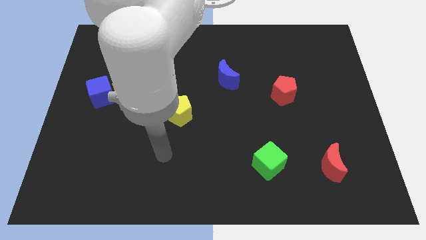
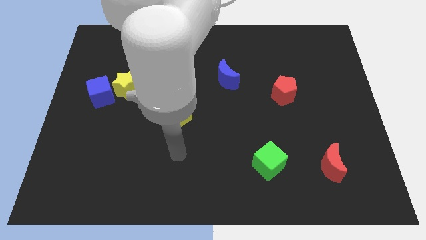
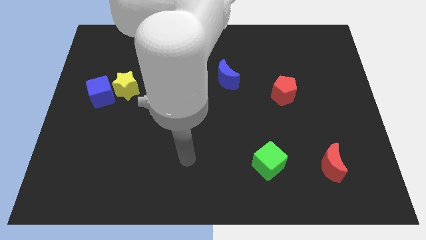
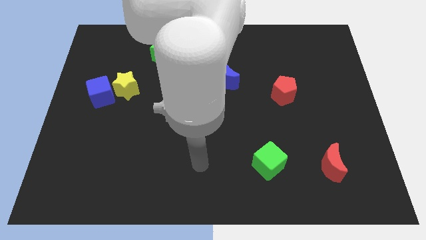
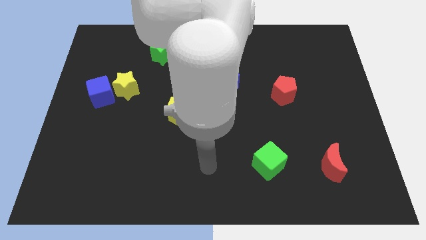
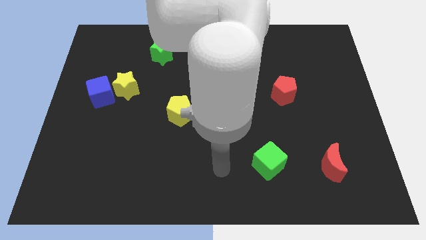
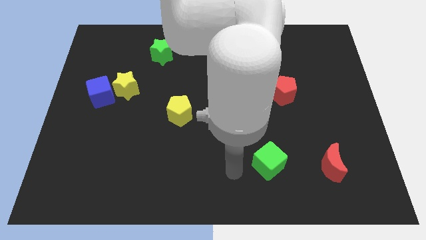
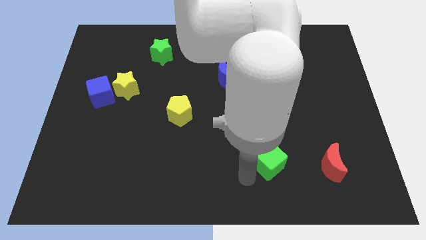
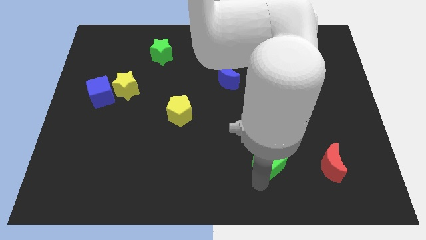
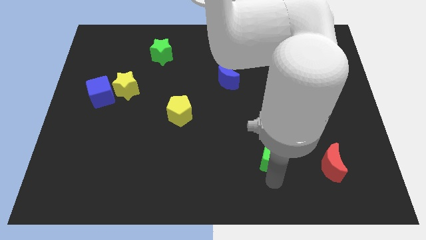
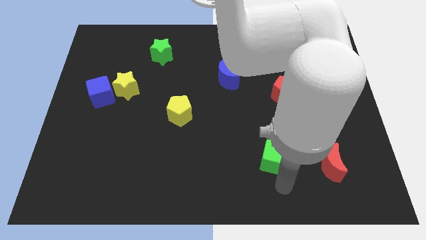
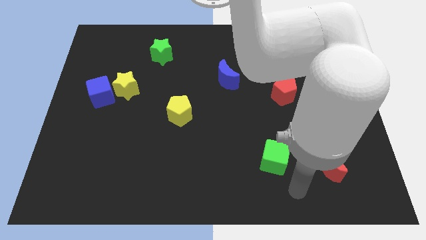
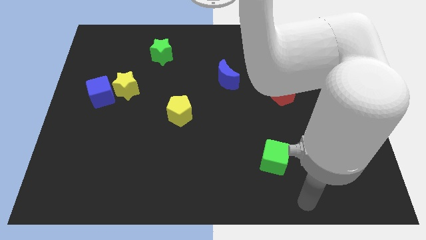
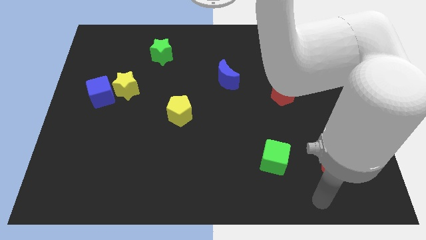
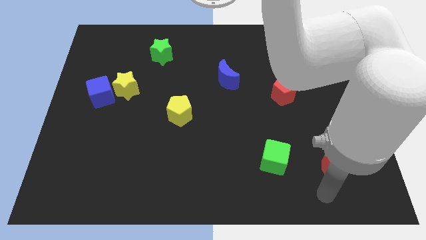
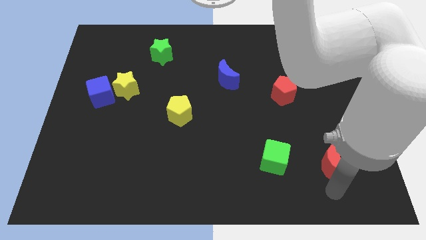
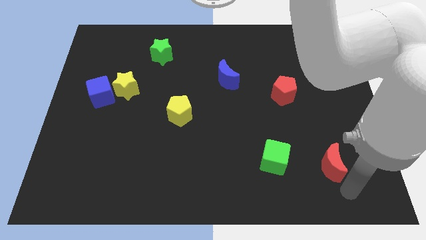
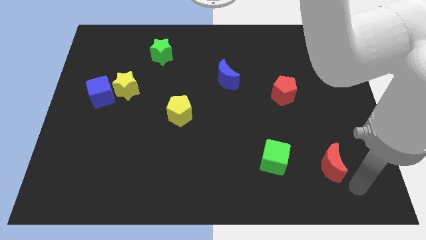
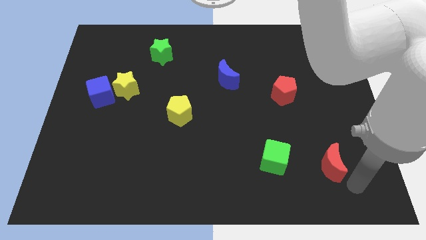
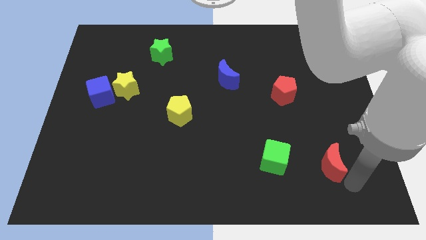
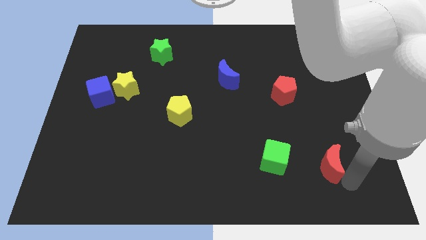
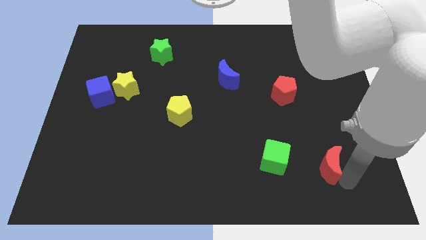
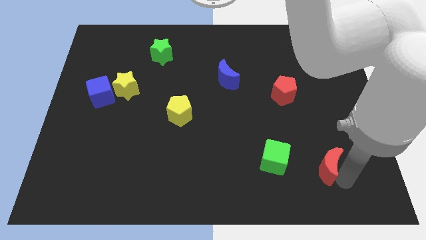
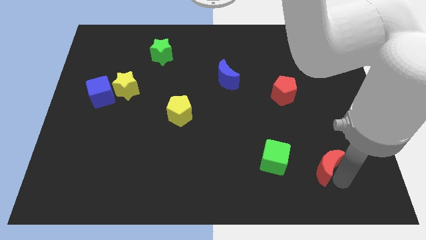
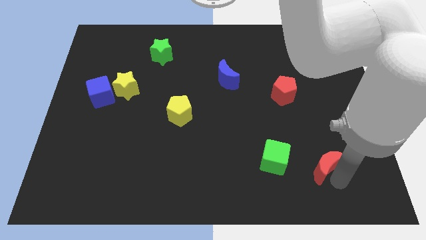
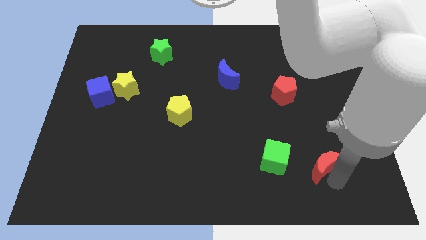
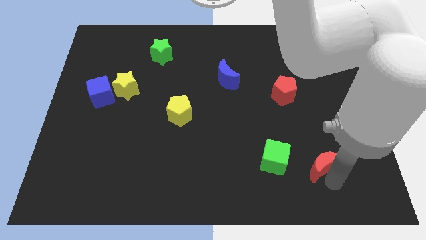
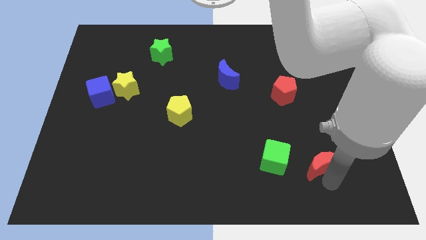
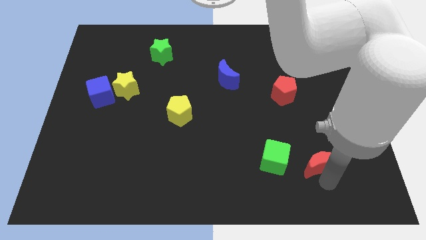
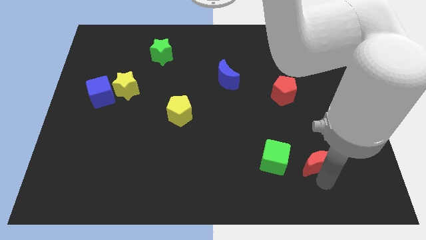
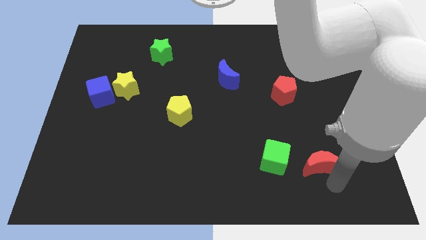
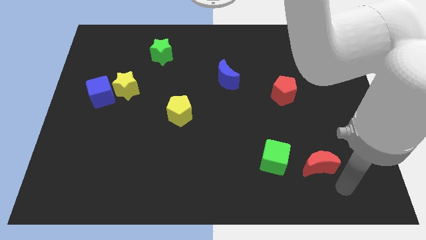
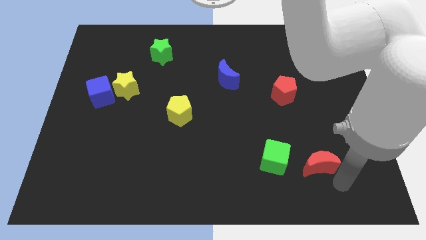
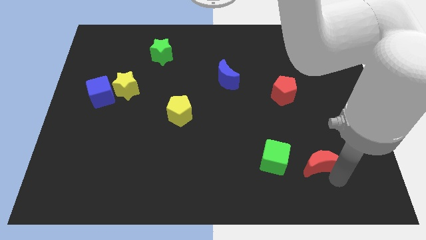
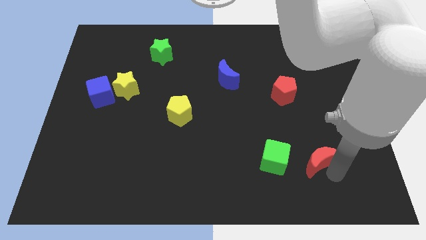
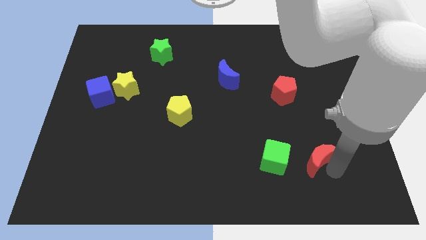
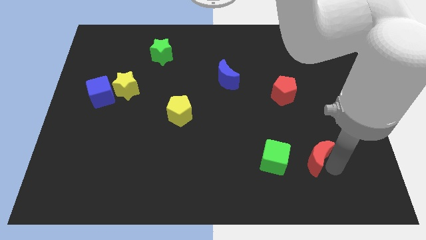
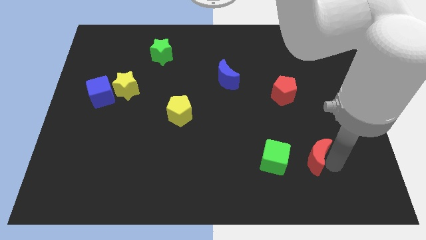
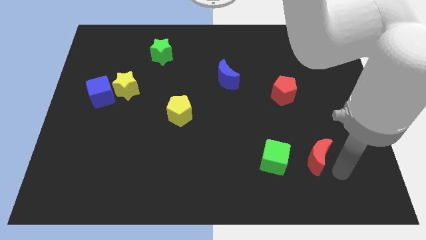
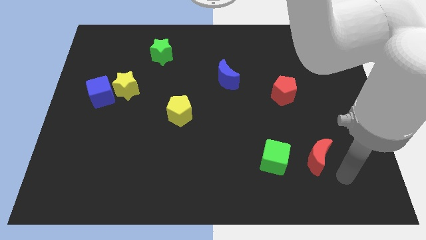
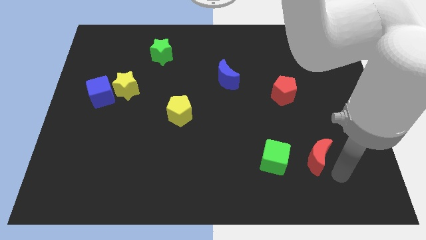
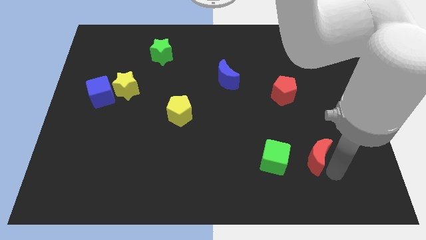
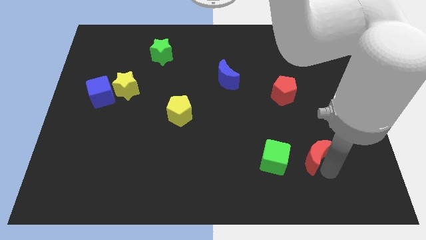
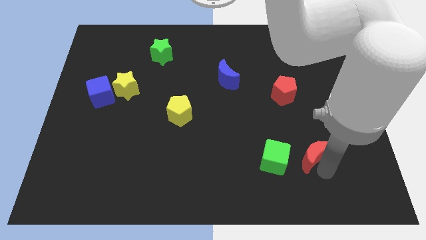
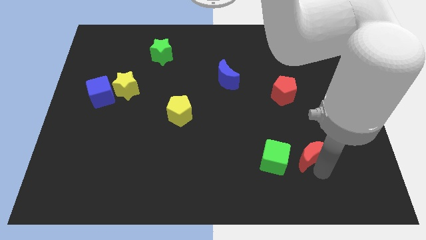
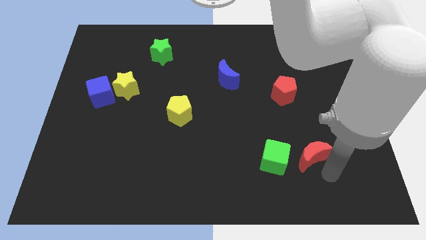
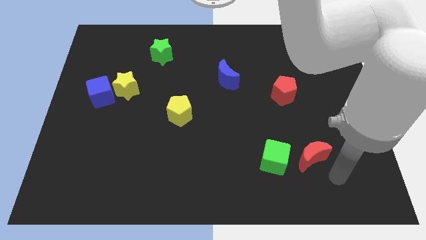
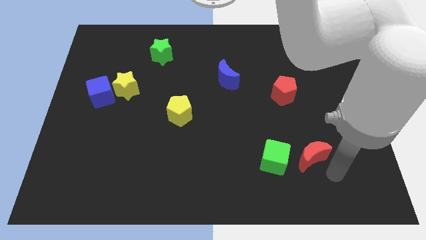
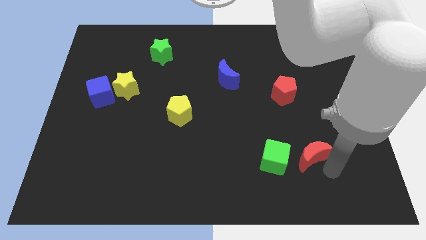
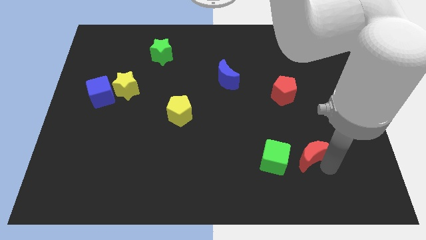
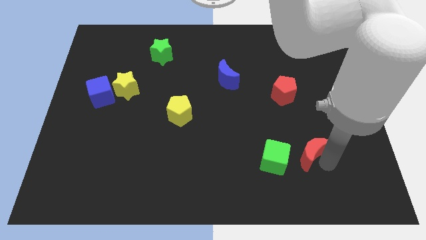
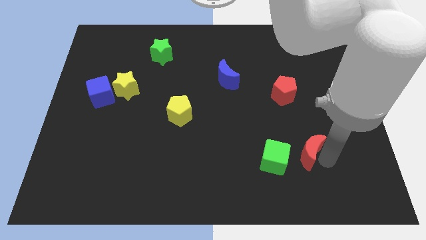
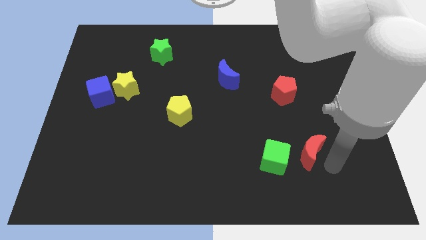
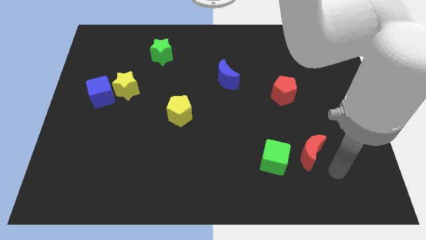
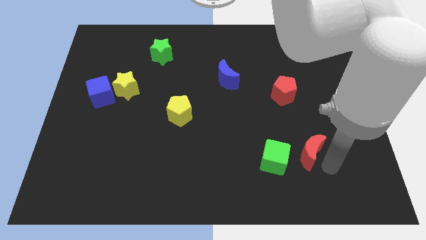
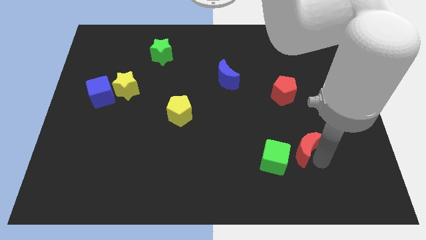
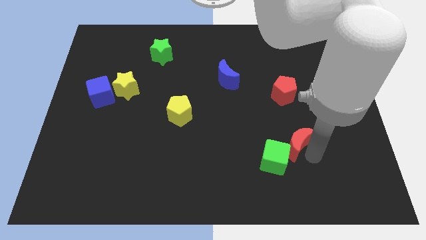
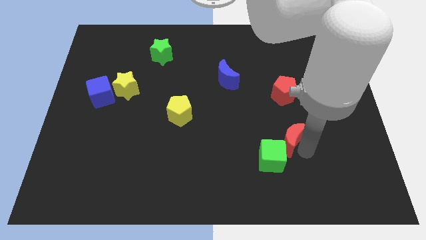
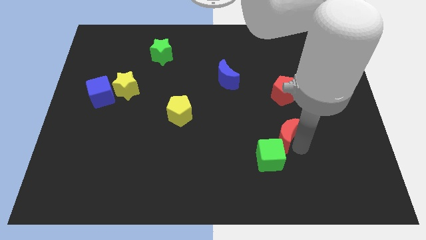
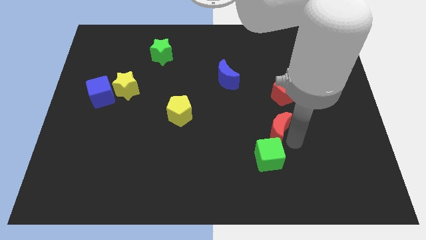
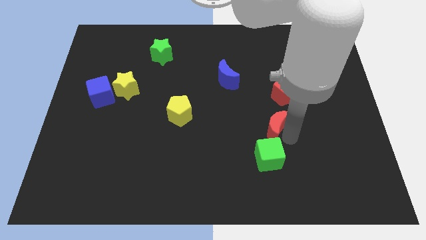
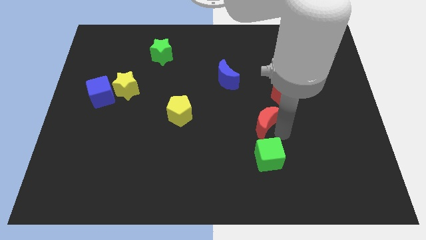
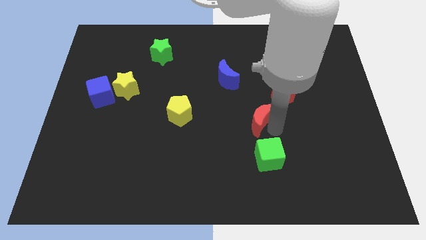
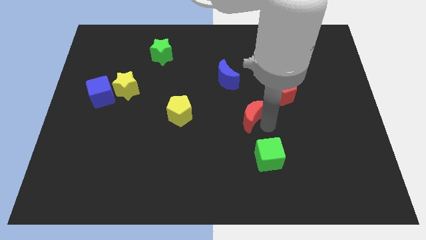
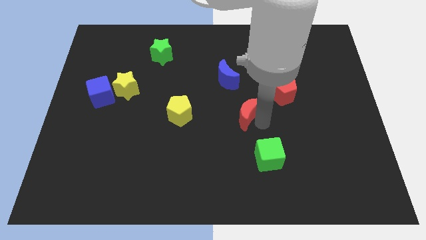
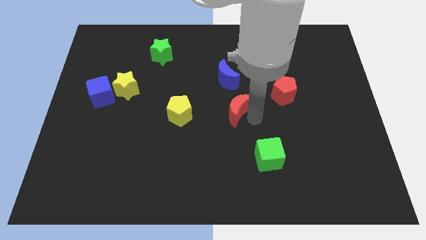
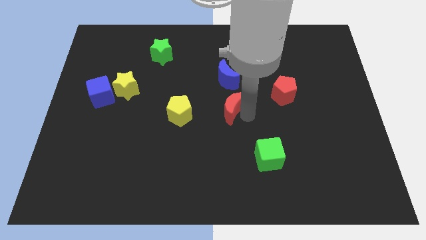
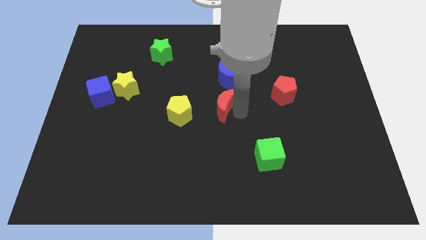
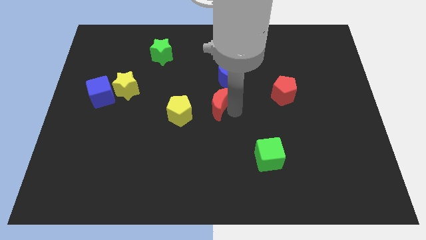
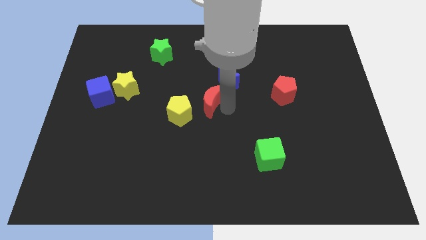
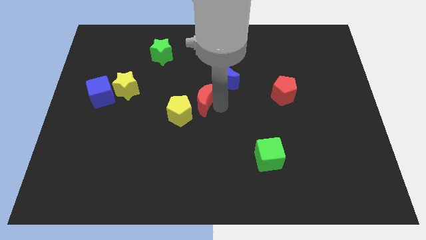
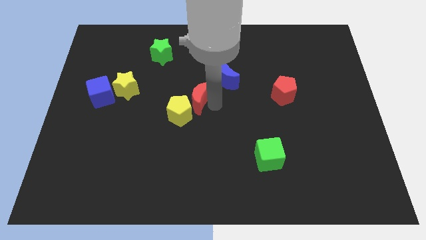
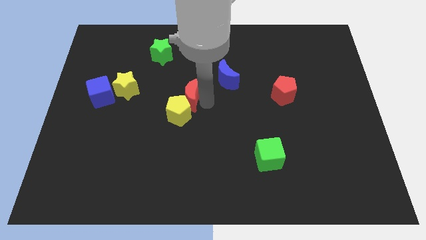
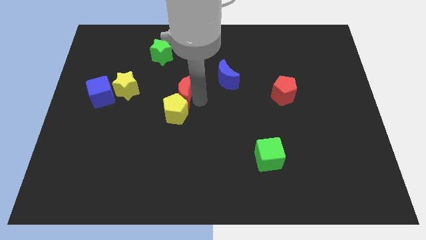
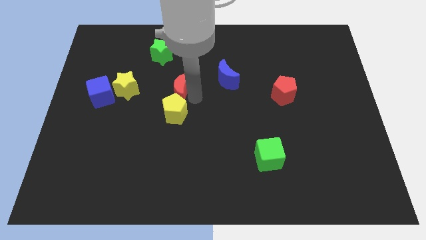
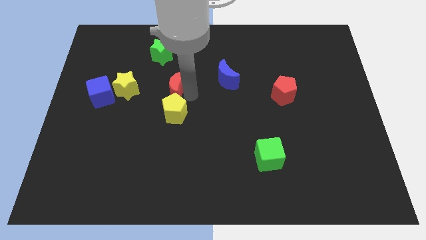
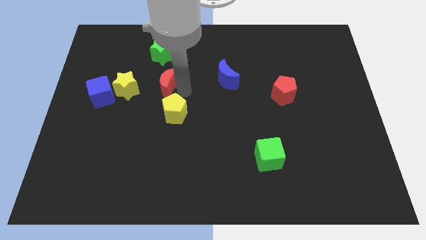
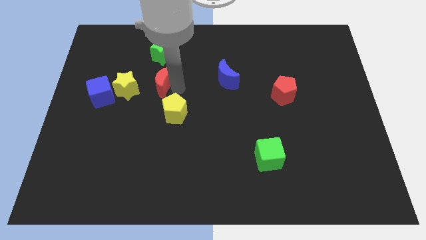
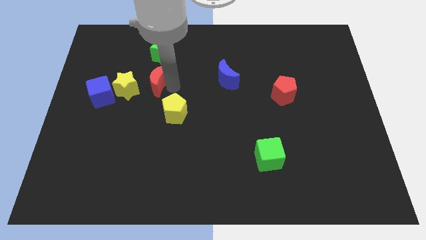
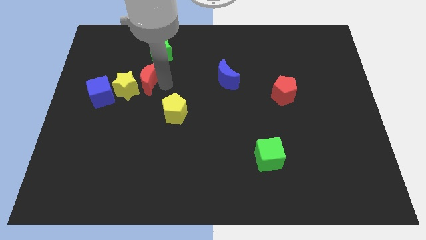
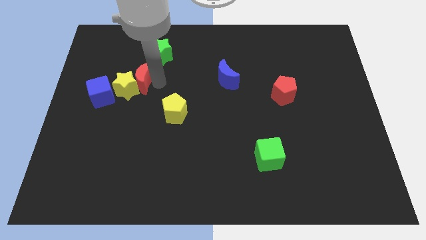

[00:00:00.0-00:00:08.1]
push the red moon to the top right of the blue cube

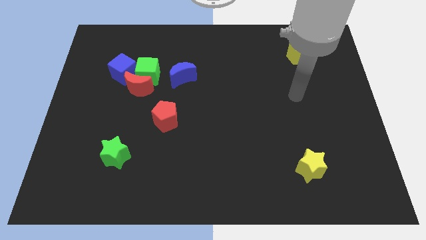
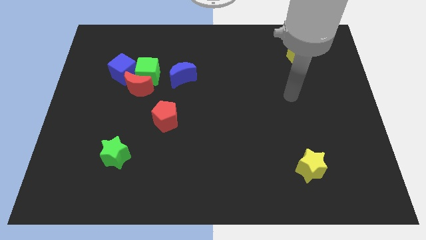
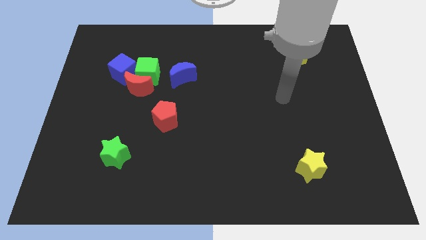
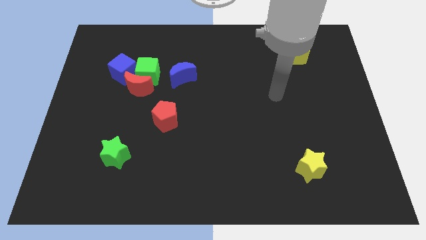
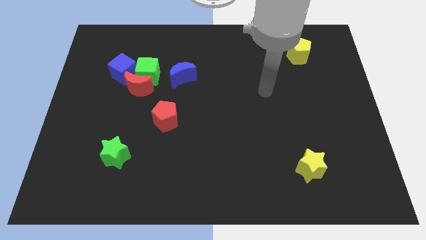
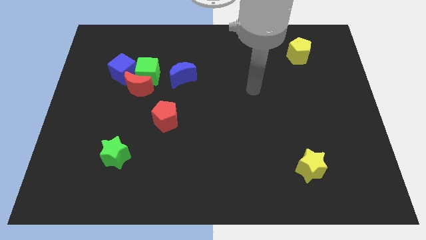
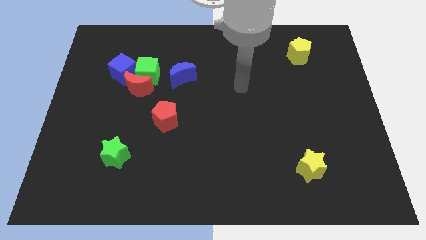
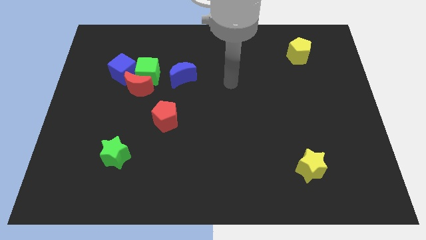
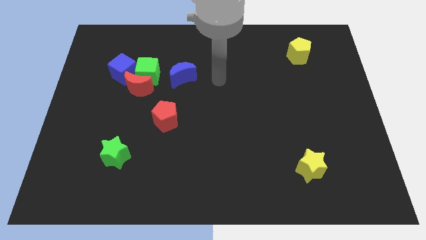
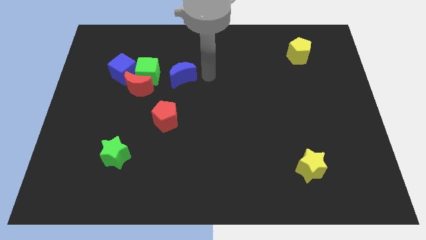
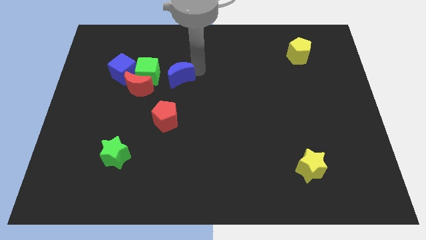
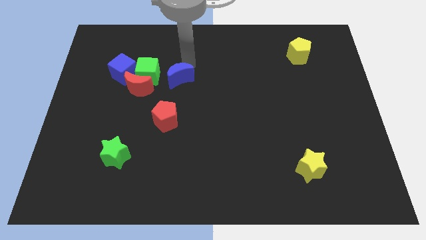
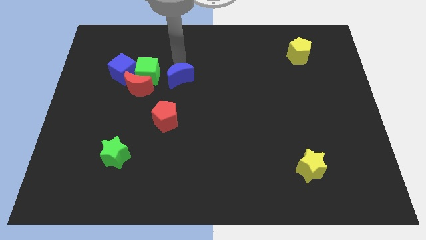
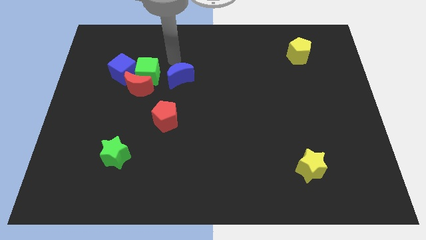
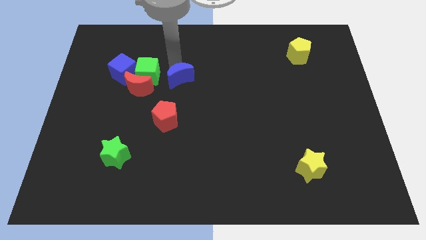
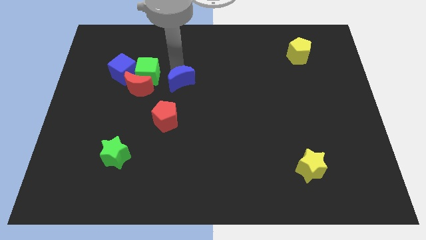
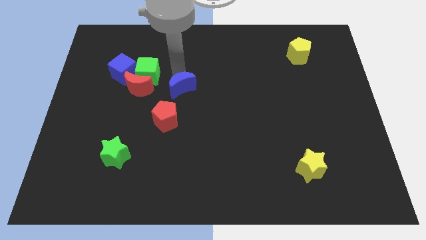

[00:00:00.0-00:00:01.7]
move the blue moon to the top right of the red pentagon
